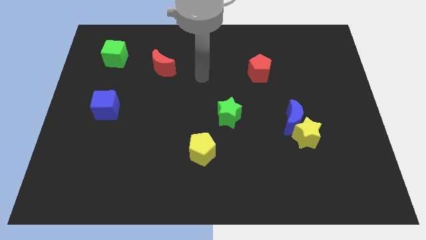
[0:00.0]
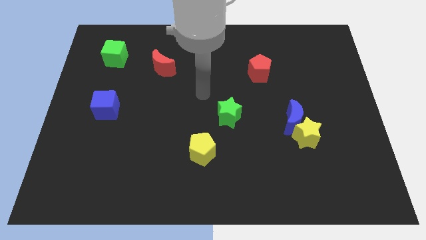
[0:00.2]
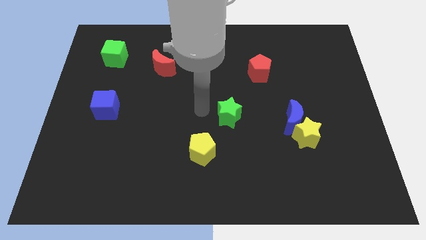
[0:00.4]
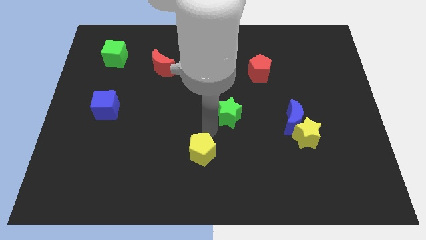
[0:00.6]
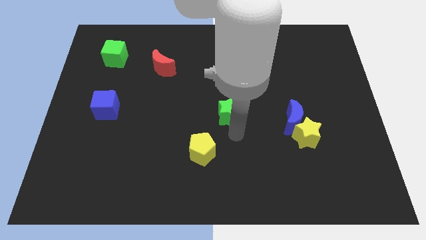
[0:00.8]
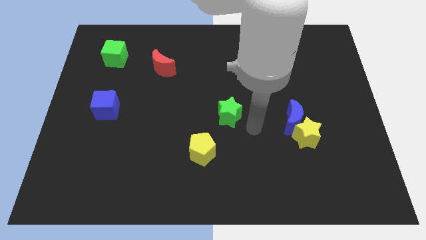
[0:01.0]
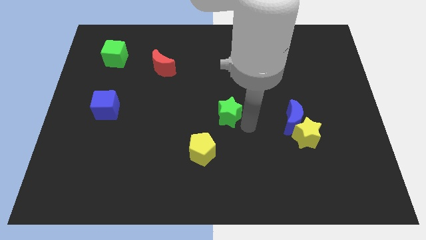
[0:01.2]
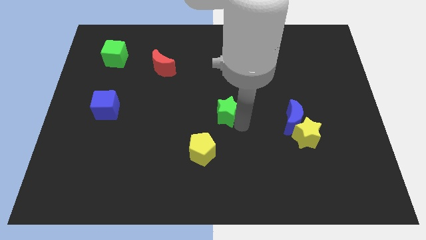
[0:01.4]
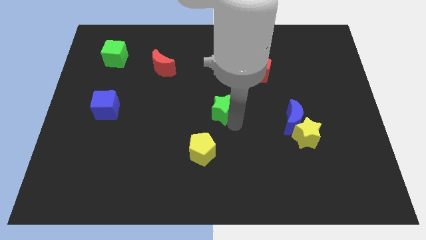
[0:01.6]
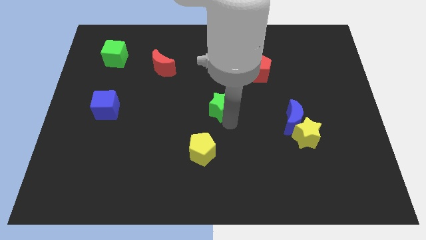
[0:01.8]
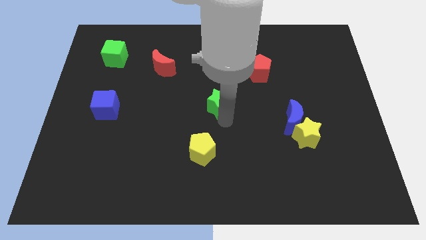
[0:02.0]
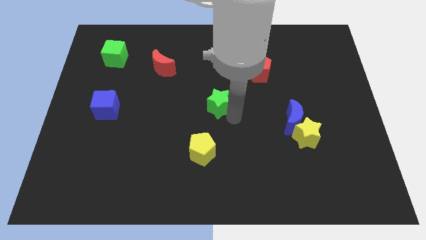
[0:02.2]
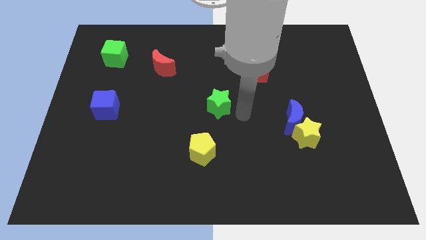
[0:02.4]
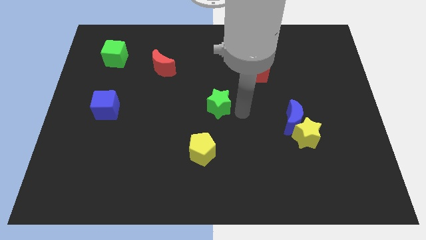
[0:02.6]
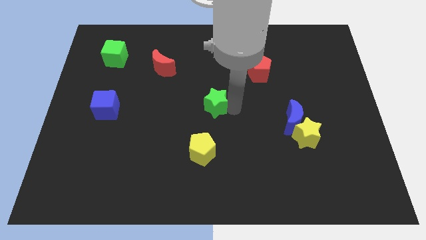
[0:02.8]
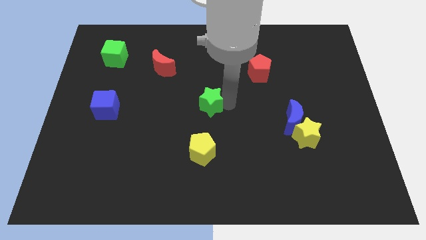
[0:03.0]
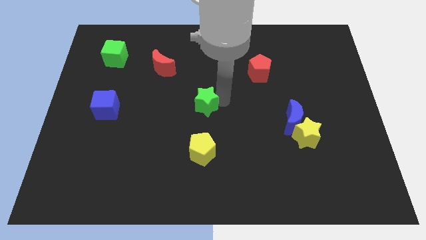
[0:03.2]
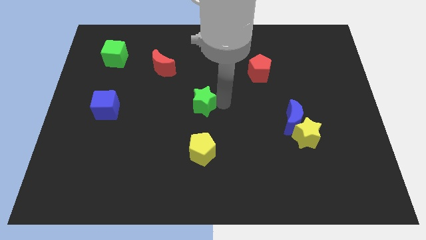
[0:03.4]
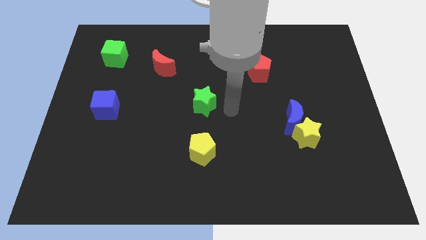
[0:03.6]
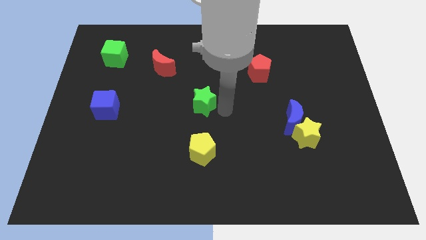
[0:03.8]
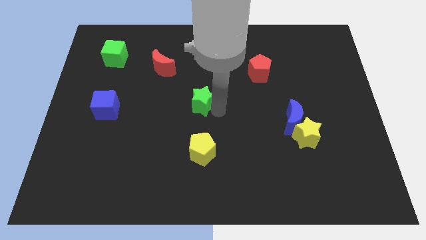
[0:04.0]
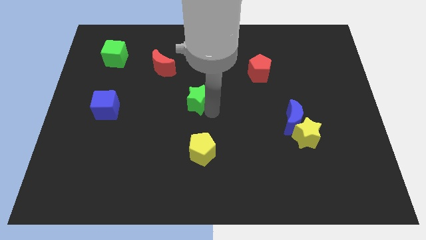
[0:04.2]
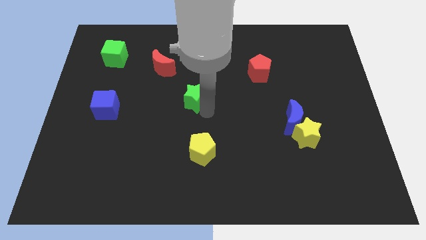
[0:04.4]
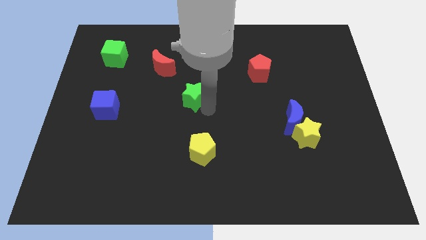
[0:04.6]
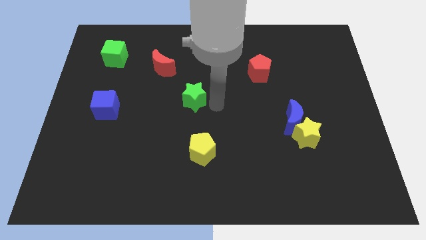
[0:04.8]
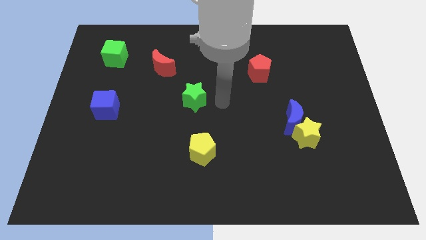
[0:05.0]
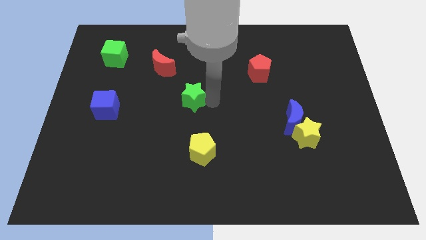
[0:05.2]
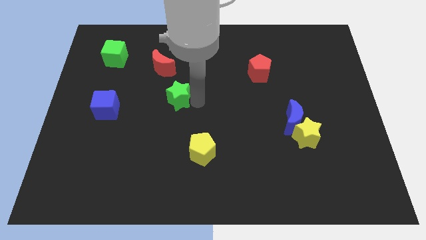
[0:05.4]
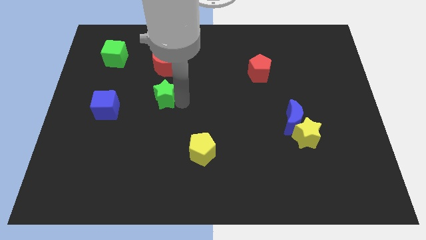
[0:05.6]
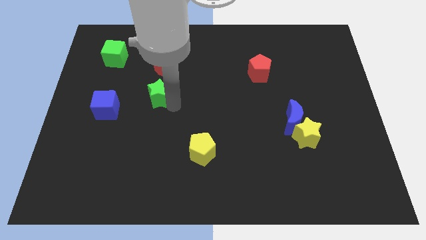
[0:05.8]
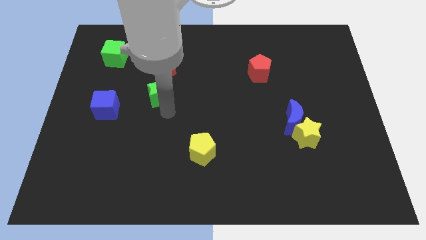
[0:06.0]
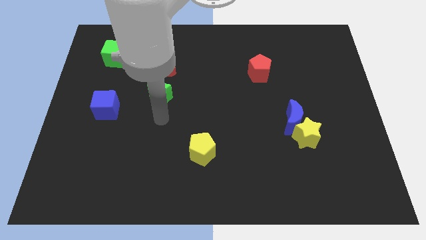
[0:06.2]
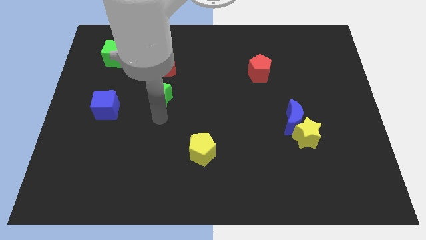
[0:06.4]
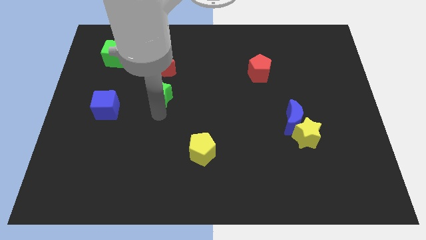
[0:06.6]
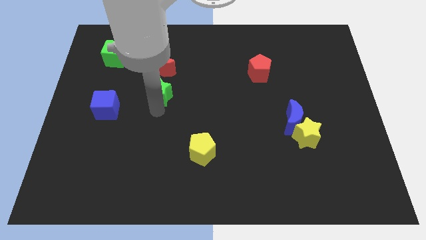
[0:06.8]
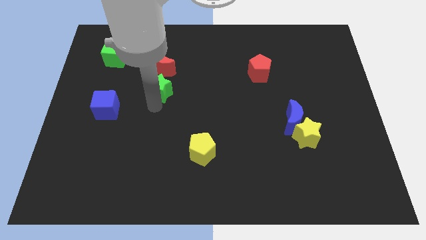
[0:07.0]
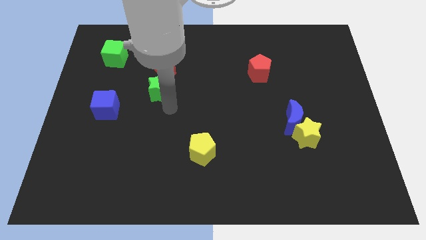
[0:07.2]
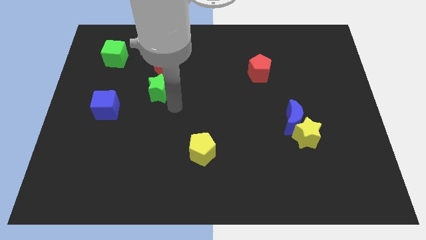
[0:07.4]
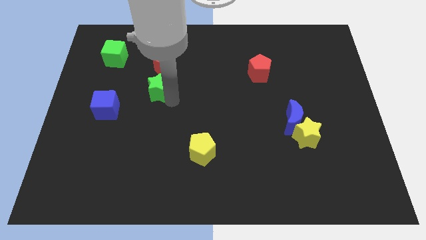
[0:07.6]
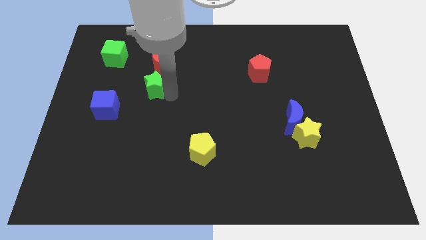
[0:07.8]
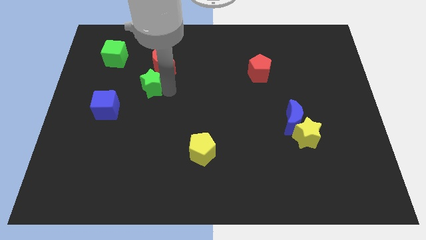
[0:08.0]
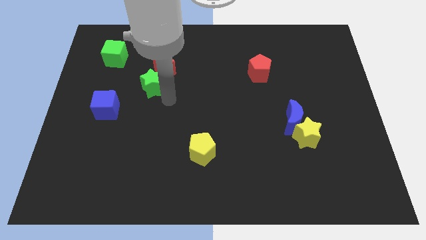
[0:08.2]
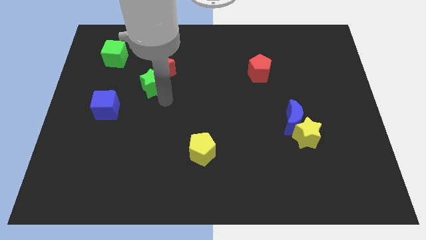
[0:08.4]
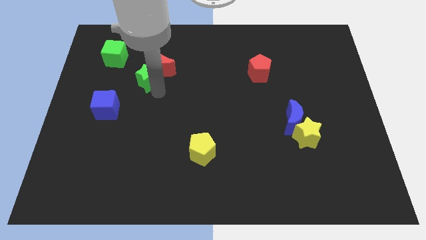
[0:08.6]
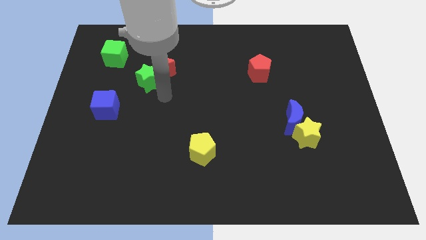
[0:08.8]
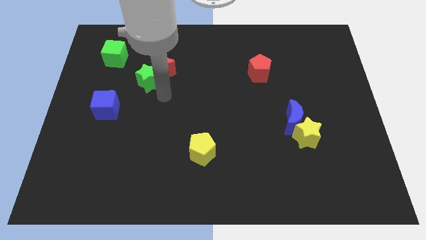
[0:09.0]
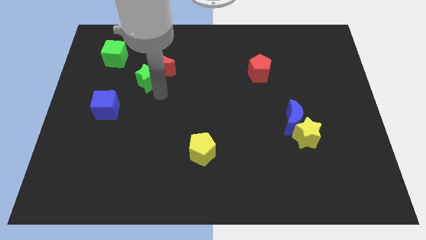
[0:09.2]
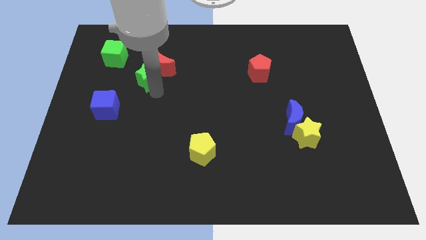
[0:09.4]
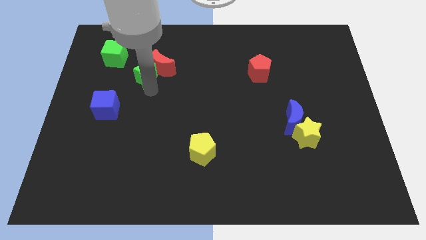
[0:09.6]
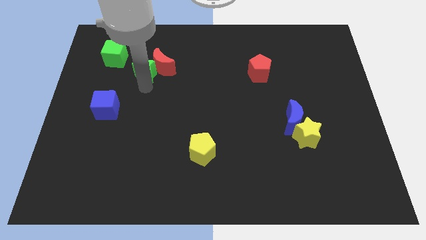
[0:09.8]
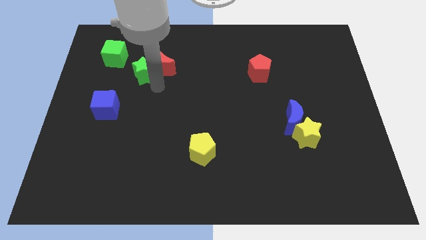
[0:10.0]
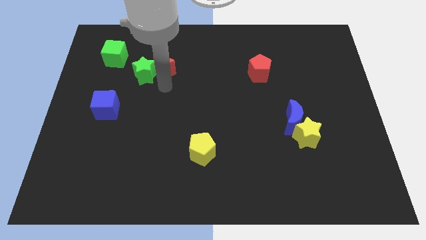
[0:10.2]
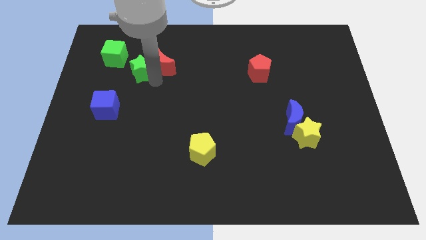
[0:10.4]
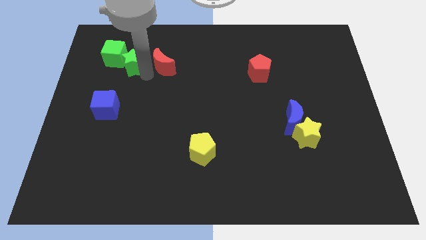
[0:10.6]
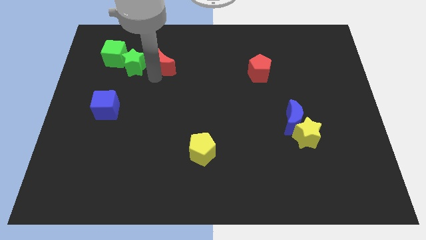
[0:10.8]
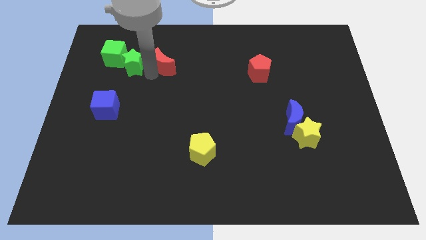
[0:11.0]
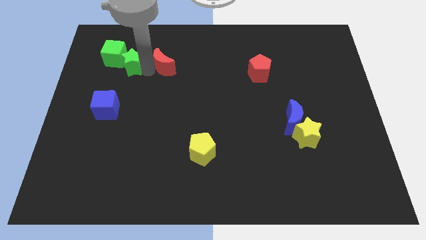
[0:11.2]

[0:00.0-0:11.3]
put the green star to the green cube

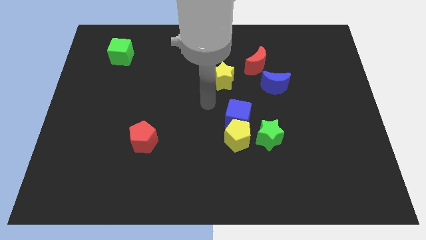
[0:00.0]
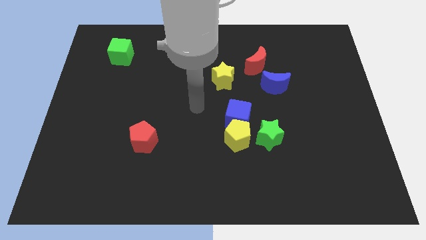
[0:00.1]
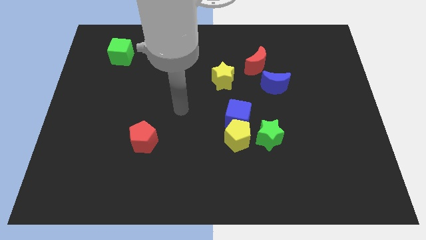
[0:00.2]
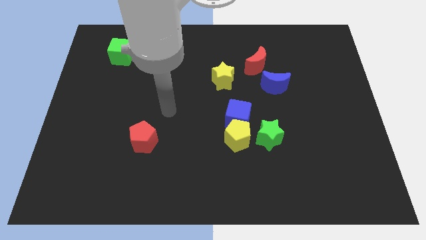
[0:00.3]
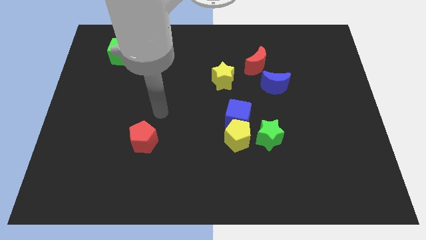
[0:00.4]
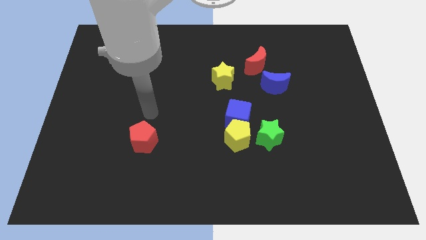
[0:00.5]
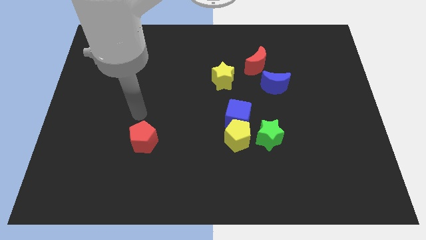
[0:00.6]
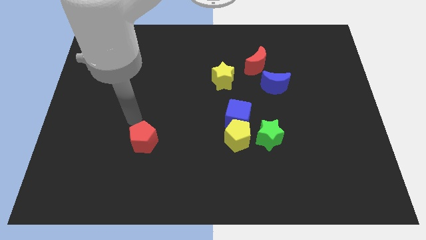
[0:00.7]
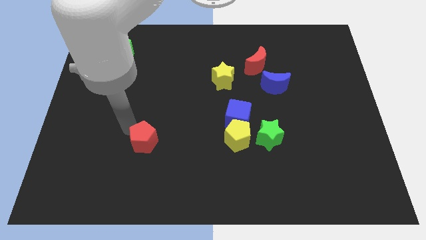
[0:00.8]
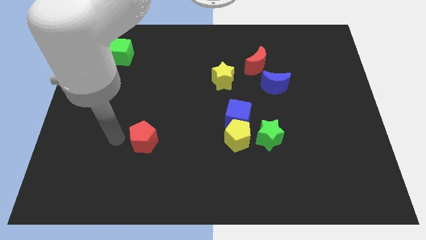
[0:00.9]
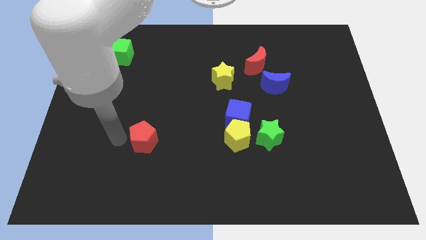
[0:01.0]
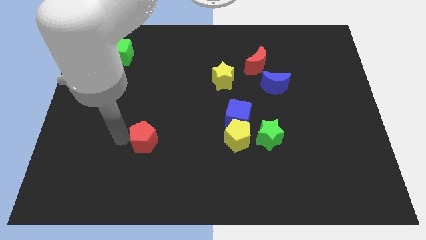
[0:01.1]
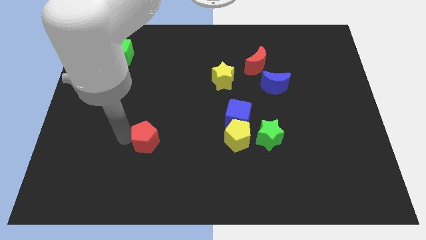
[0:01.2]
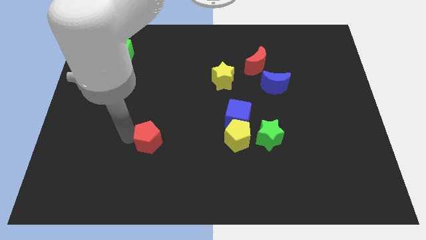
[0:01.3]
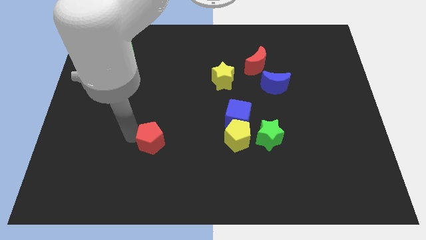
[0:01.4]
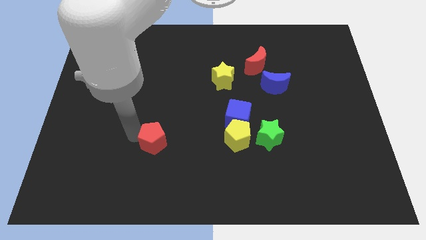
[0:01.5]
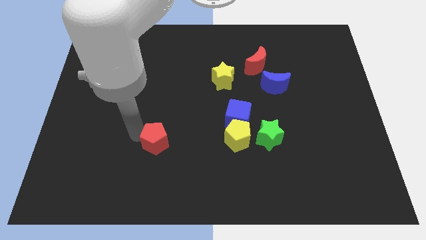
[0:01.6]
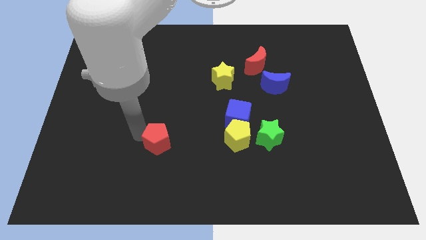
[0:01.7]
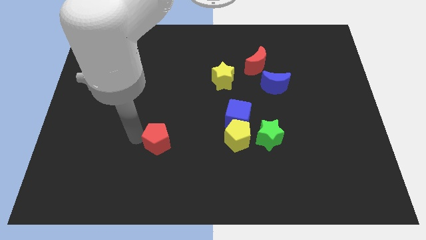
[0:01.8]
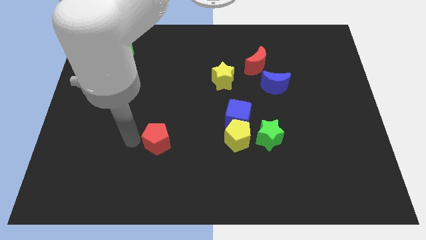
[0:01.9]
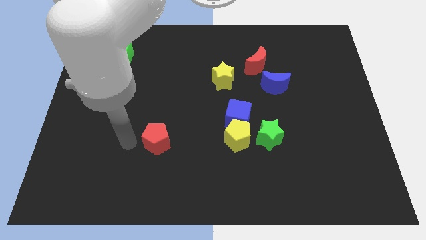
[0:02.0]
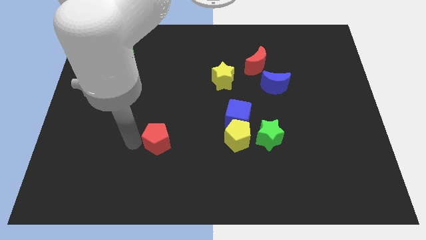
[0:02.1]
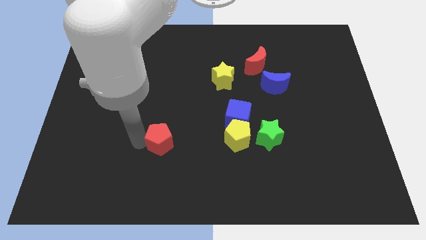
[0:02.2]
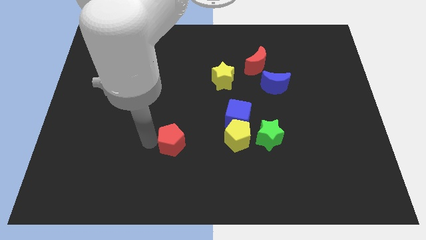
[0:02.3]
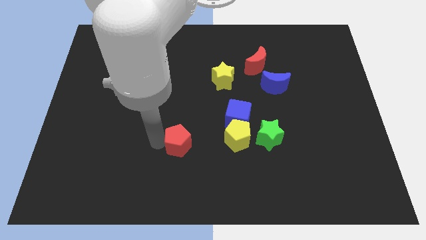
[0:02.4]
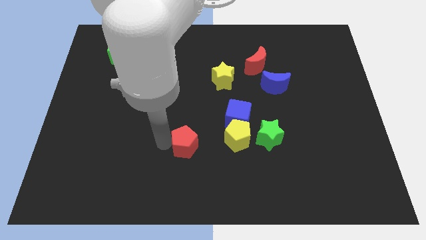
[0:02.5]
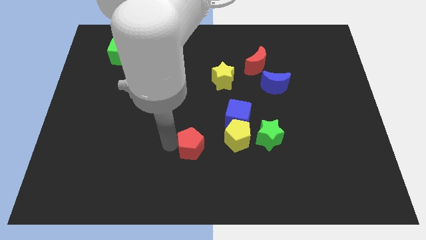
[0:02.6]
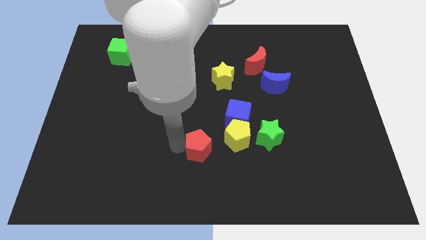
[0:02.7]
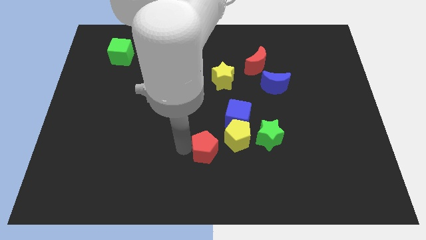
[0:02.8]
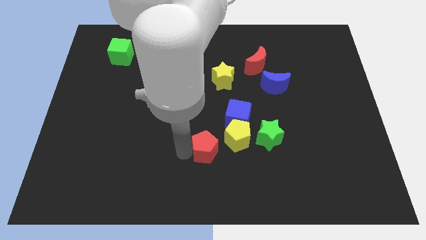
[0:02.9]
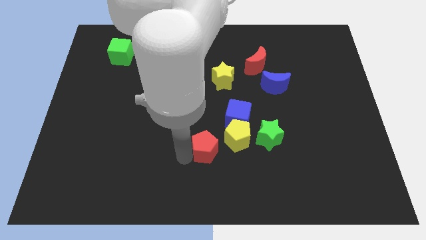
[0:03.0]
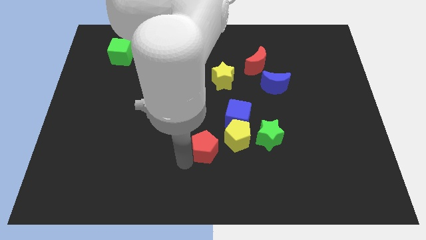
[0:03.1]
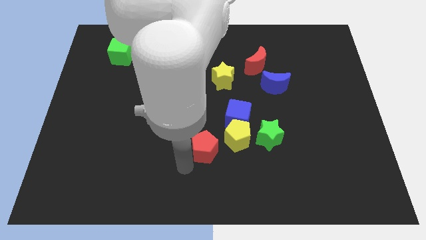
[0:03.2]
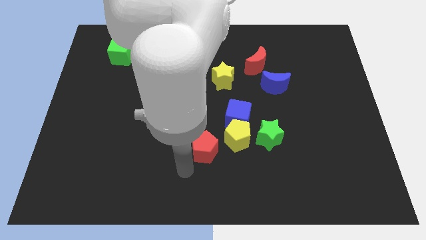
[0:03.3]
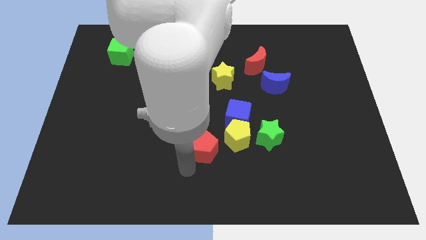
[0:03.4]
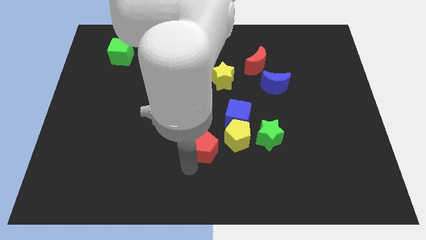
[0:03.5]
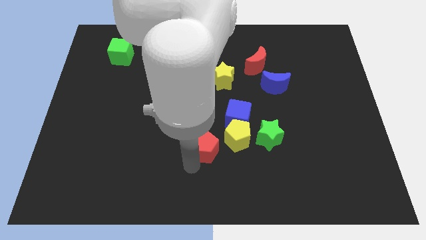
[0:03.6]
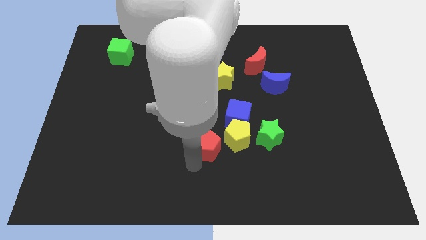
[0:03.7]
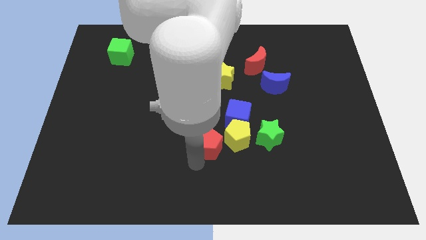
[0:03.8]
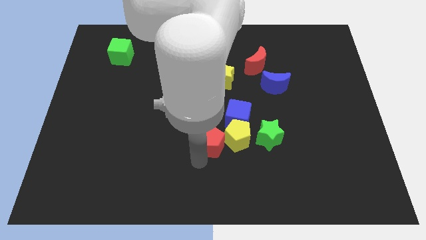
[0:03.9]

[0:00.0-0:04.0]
move the red pentagon close to the yellow pentagon
